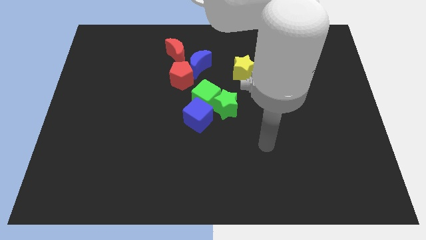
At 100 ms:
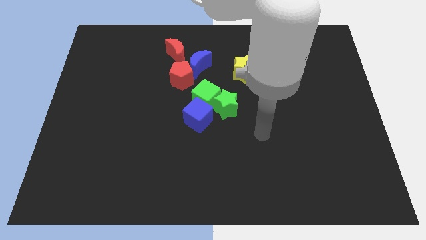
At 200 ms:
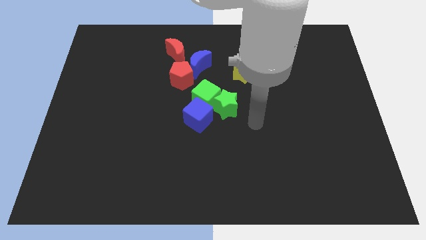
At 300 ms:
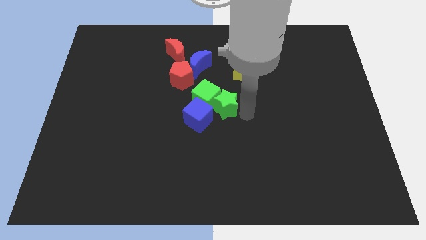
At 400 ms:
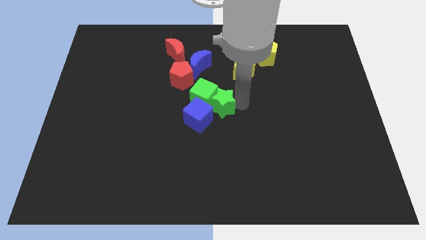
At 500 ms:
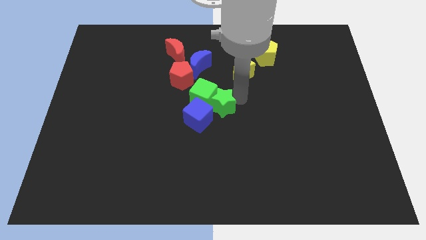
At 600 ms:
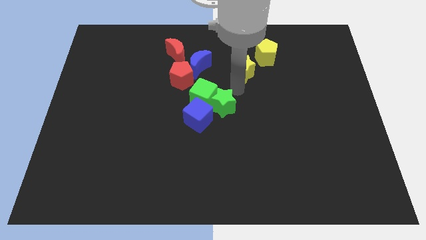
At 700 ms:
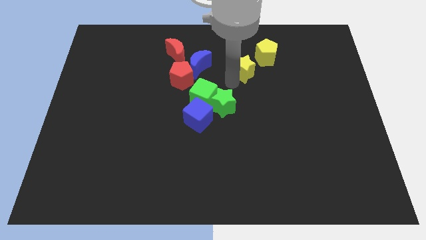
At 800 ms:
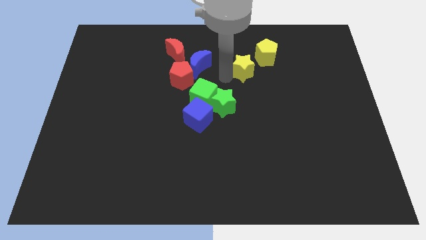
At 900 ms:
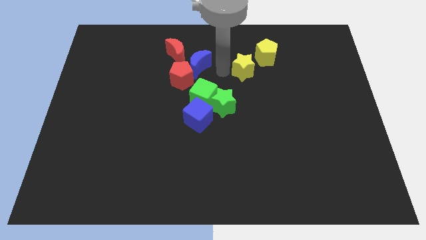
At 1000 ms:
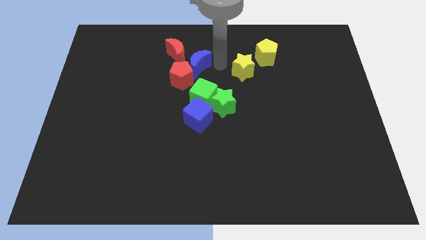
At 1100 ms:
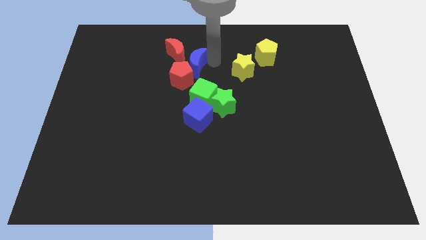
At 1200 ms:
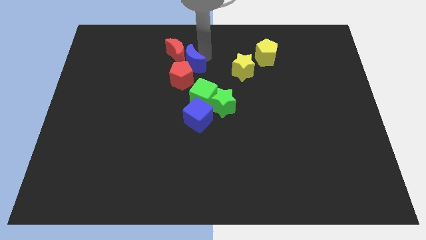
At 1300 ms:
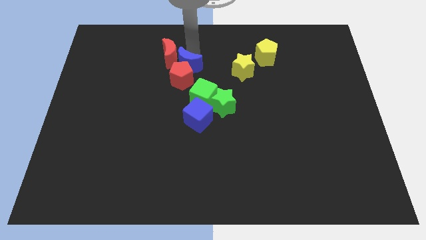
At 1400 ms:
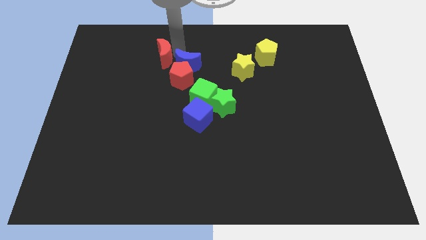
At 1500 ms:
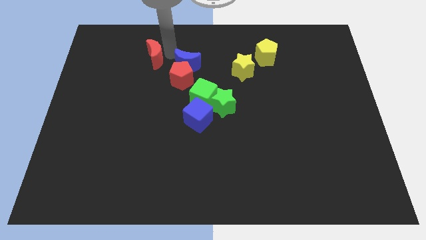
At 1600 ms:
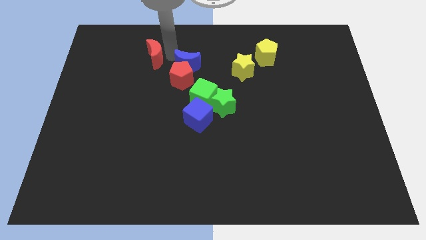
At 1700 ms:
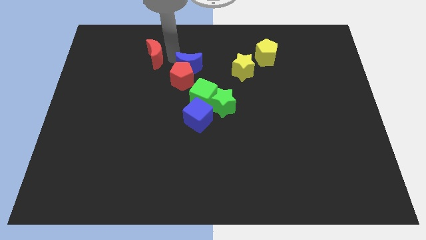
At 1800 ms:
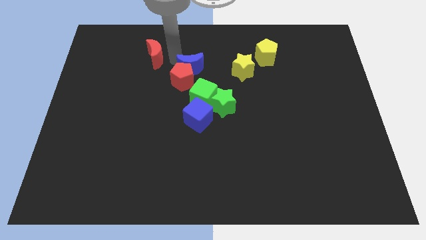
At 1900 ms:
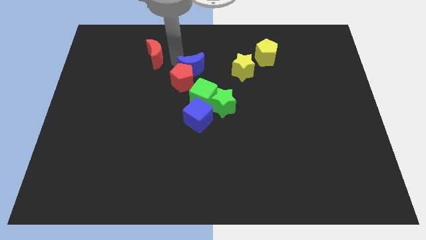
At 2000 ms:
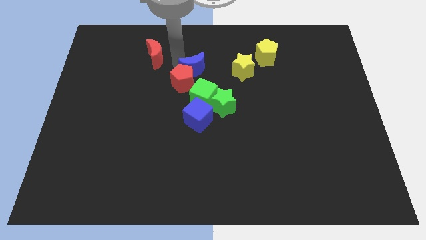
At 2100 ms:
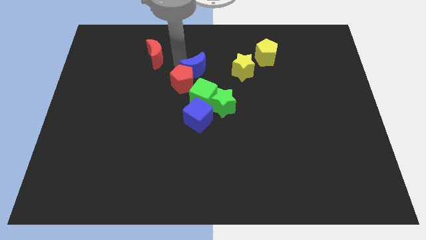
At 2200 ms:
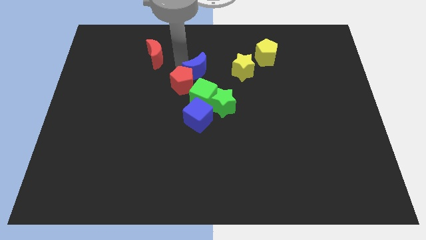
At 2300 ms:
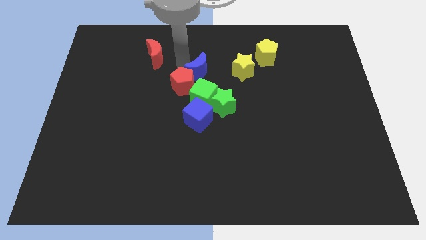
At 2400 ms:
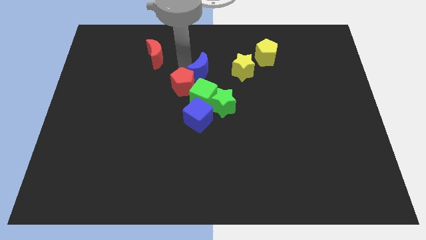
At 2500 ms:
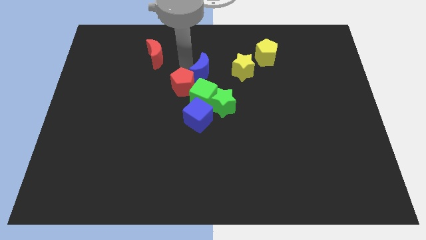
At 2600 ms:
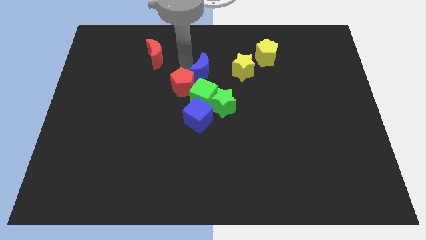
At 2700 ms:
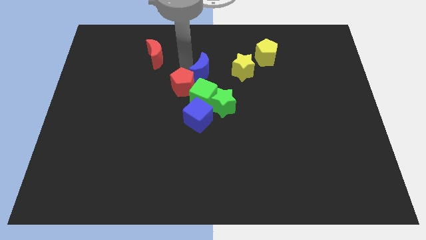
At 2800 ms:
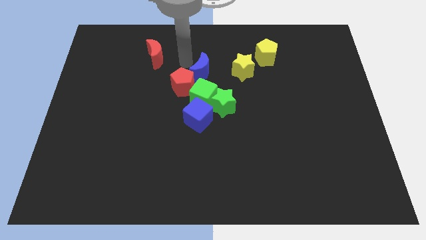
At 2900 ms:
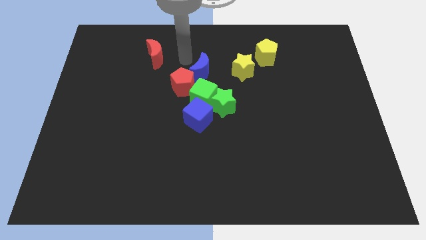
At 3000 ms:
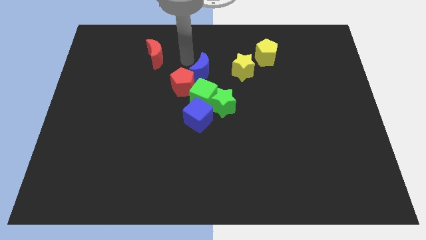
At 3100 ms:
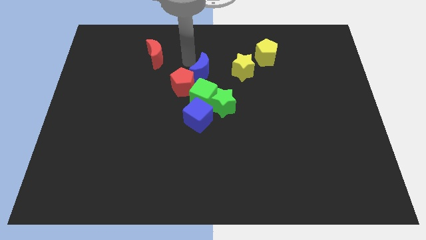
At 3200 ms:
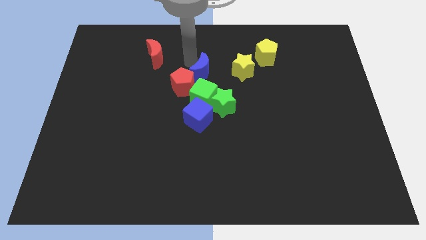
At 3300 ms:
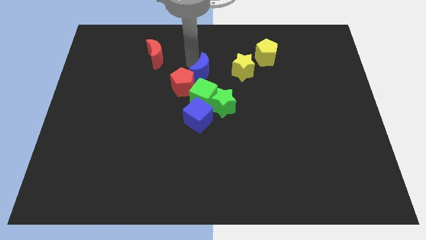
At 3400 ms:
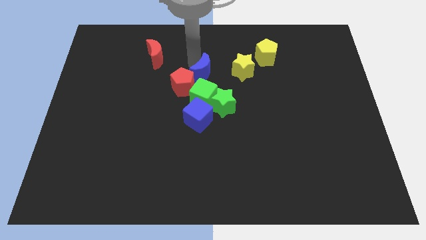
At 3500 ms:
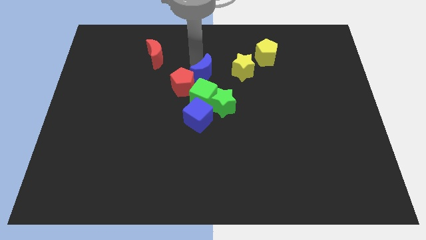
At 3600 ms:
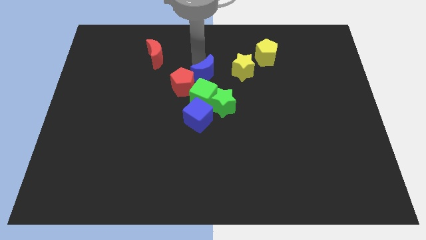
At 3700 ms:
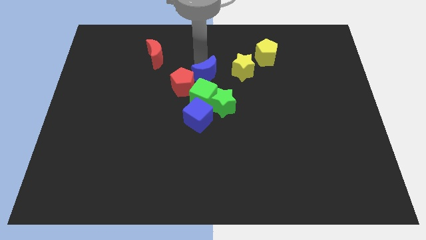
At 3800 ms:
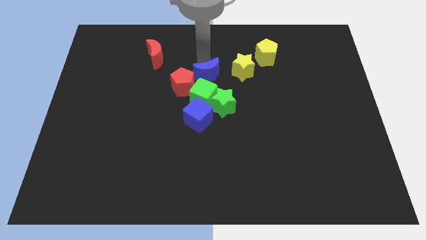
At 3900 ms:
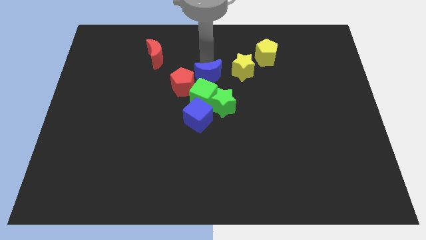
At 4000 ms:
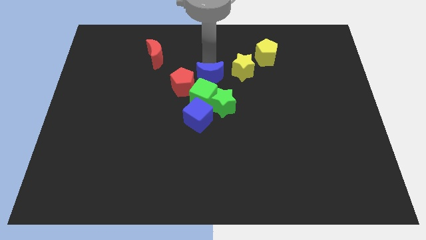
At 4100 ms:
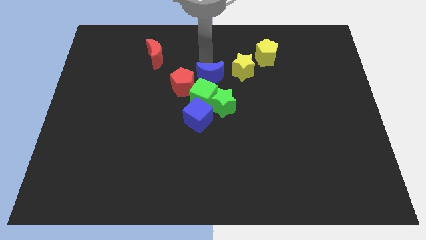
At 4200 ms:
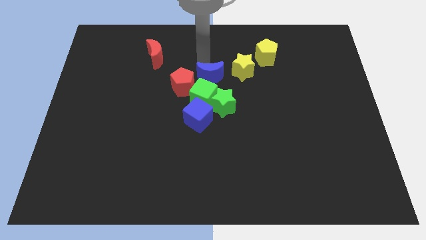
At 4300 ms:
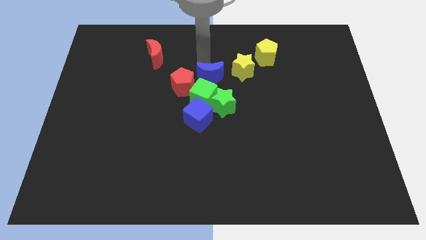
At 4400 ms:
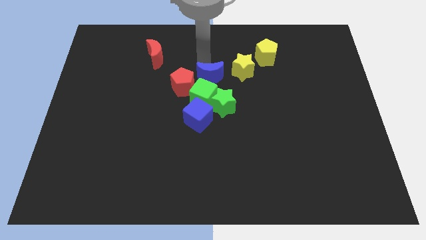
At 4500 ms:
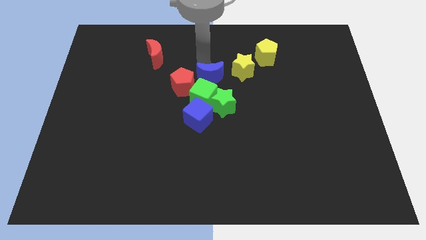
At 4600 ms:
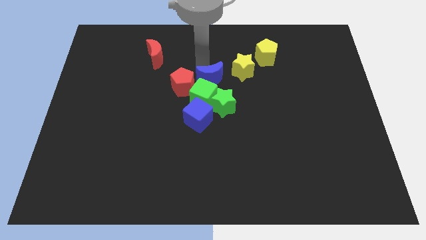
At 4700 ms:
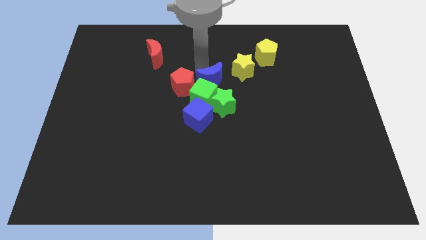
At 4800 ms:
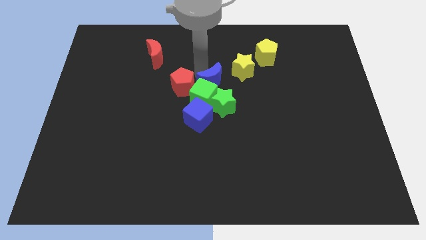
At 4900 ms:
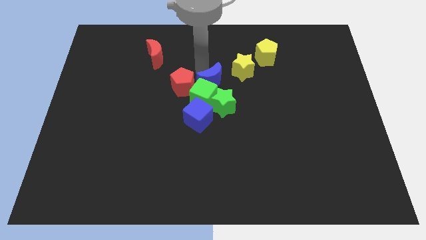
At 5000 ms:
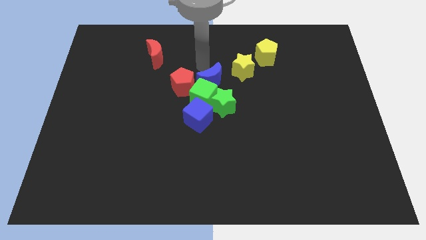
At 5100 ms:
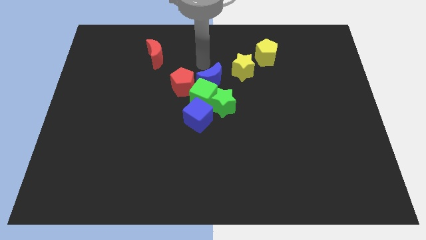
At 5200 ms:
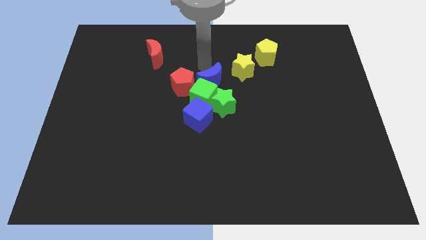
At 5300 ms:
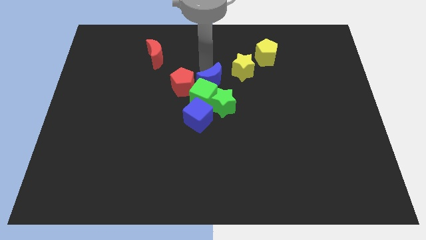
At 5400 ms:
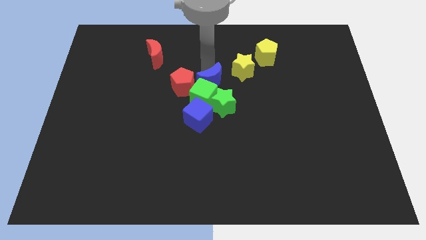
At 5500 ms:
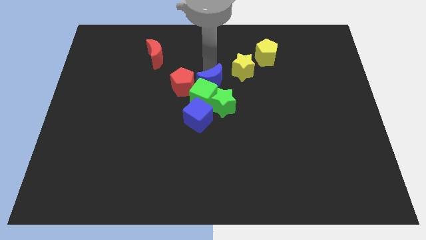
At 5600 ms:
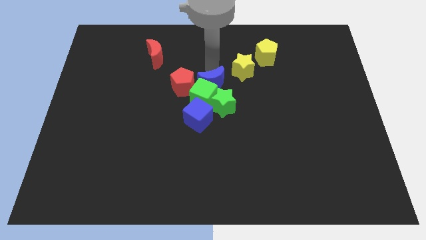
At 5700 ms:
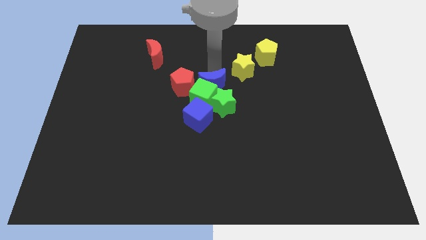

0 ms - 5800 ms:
move the blue moon to the top right of the blue cube
